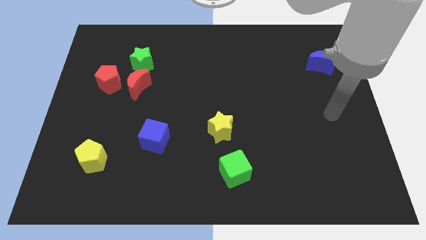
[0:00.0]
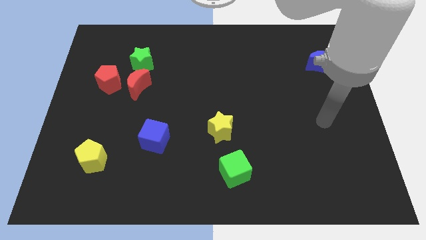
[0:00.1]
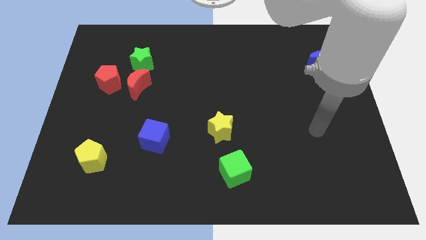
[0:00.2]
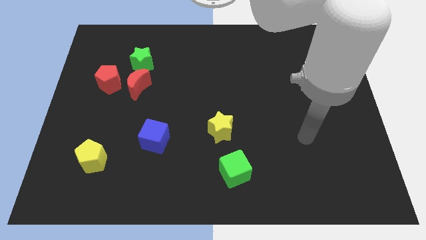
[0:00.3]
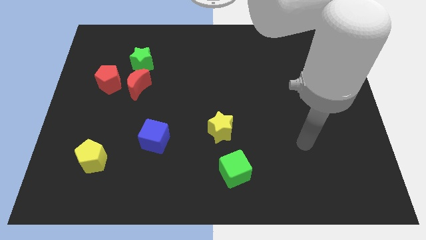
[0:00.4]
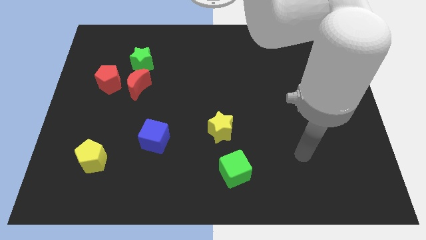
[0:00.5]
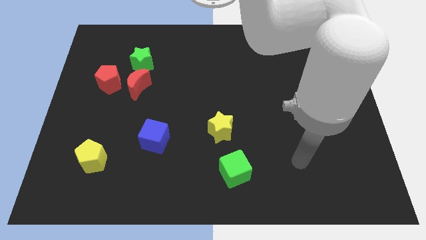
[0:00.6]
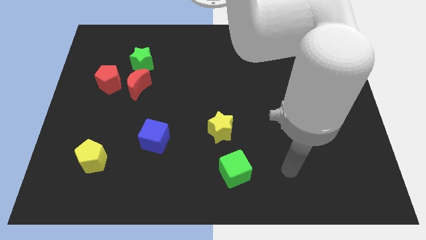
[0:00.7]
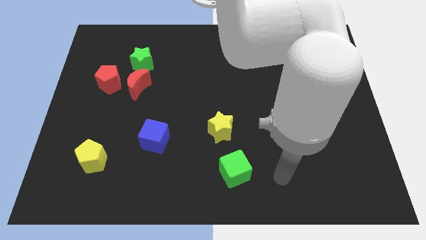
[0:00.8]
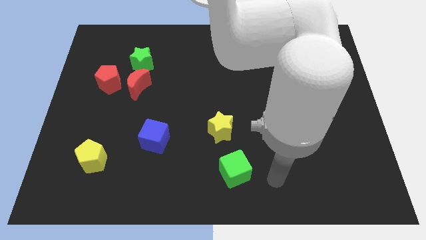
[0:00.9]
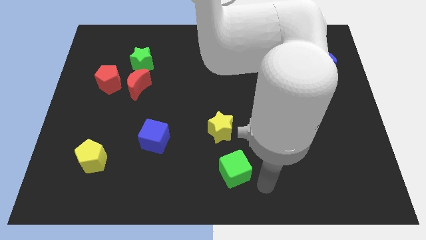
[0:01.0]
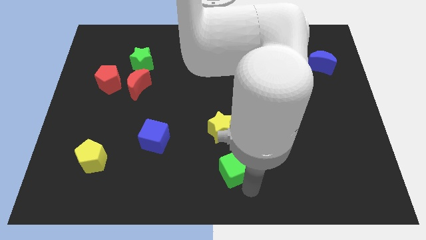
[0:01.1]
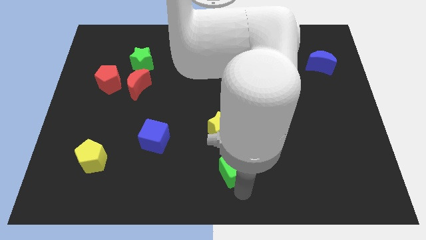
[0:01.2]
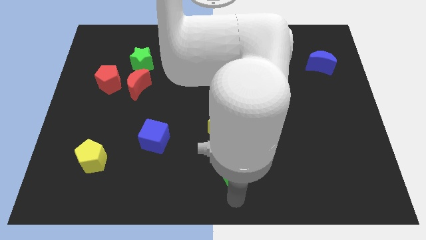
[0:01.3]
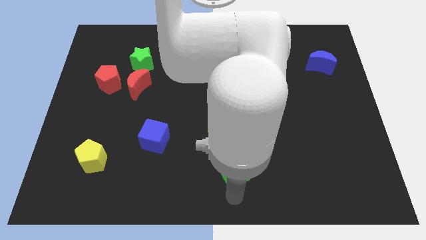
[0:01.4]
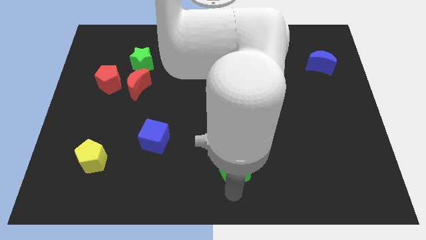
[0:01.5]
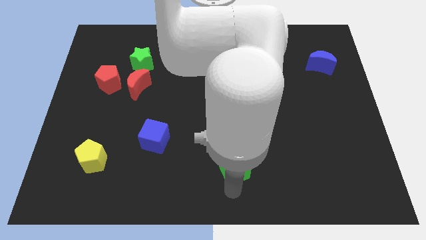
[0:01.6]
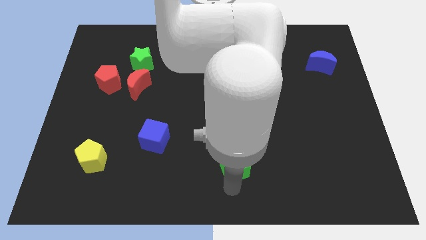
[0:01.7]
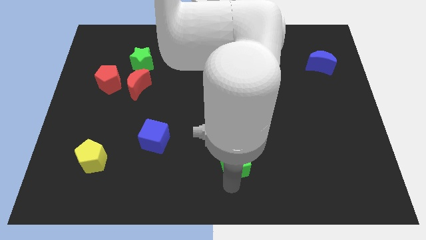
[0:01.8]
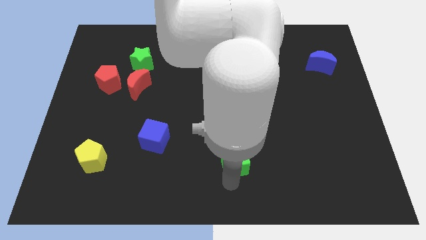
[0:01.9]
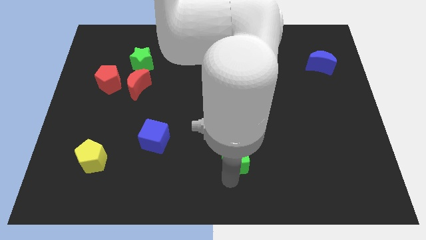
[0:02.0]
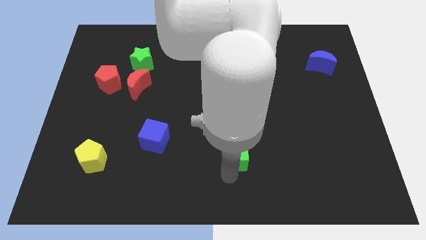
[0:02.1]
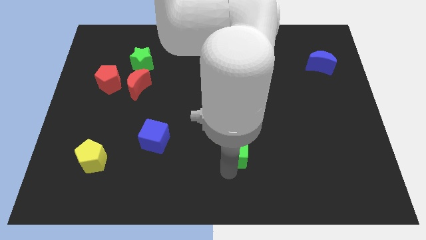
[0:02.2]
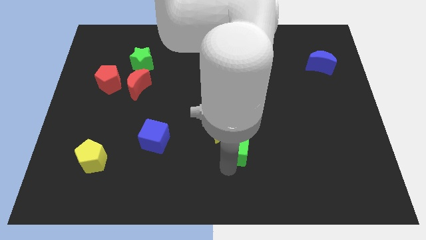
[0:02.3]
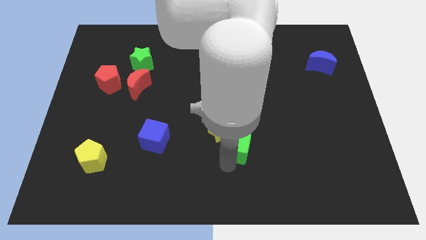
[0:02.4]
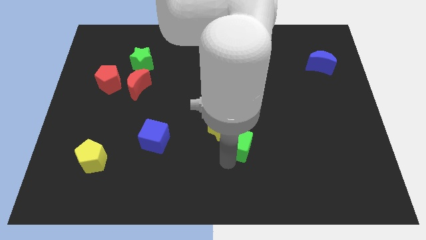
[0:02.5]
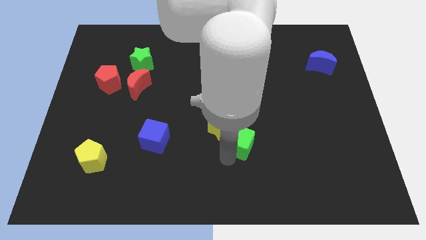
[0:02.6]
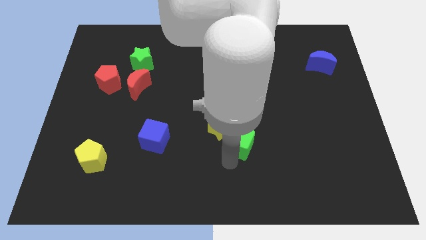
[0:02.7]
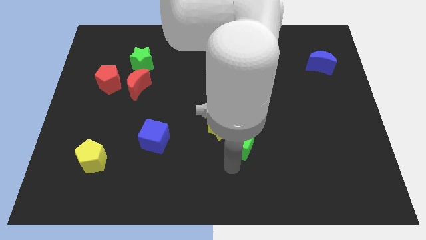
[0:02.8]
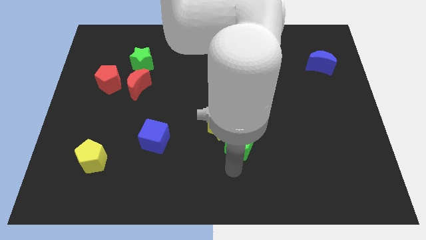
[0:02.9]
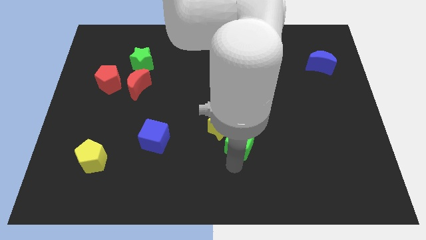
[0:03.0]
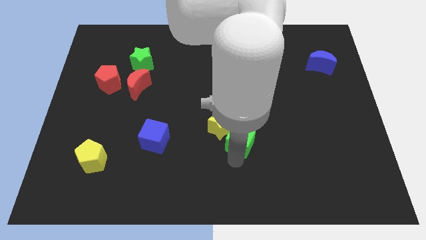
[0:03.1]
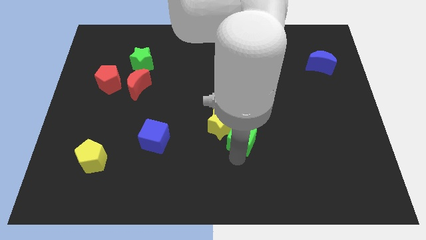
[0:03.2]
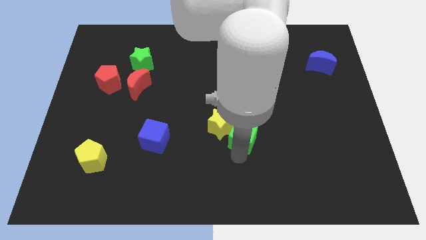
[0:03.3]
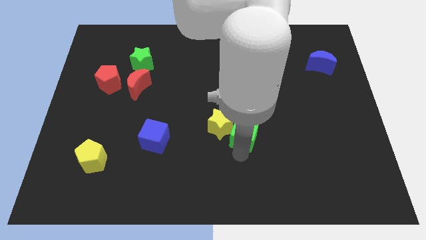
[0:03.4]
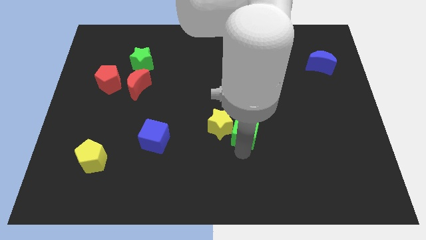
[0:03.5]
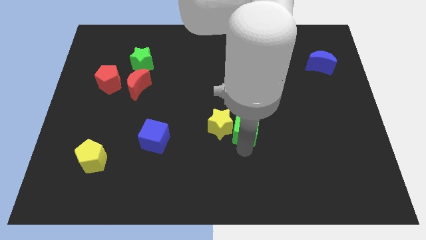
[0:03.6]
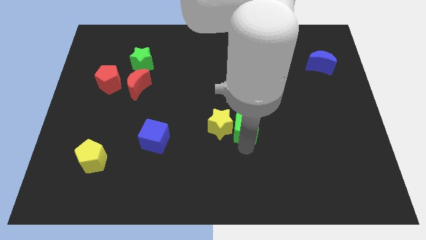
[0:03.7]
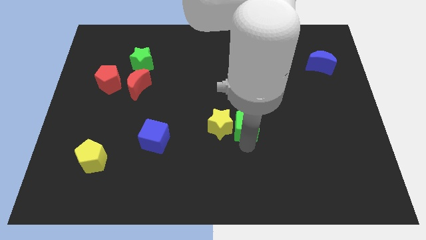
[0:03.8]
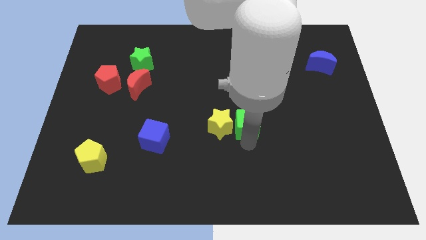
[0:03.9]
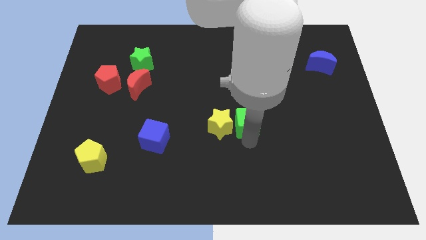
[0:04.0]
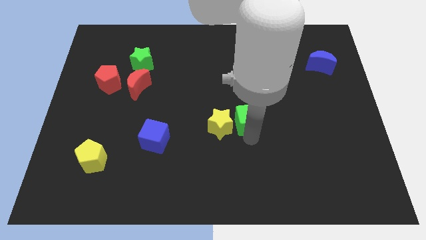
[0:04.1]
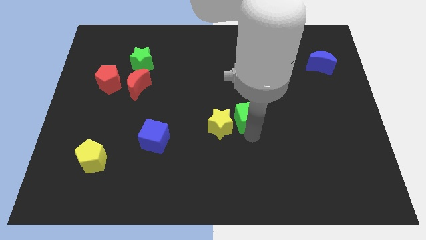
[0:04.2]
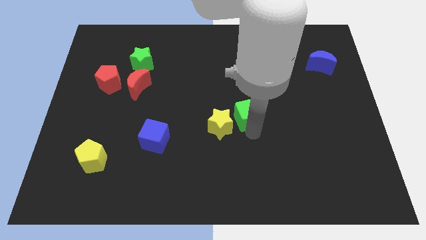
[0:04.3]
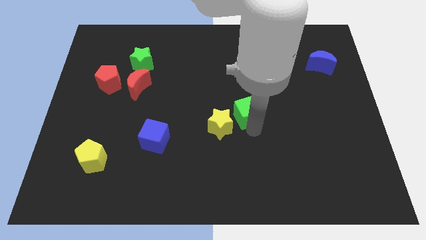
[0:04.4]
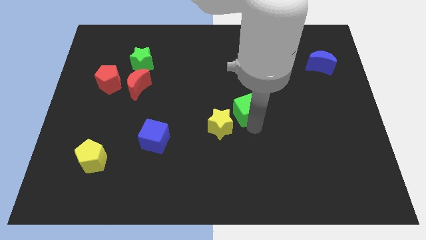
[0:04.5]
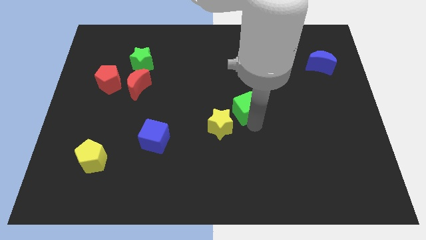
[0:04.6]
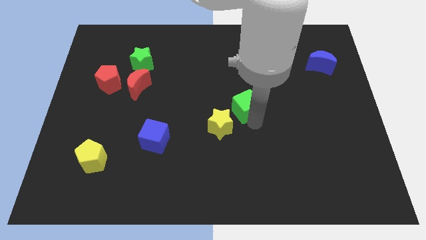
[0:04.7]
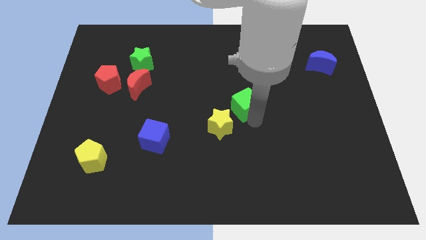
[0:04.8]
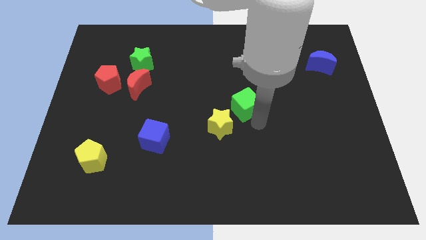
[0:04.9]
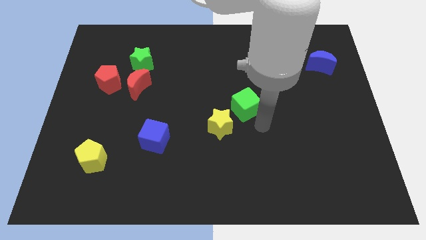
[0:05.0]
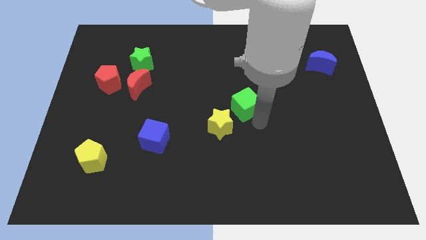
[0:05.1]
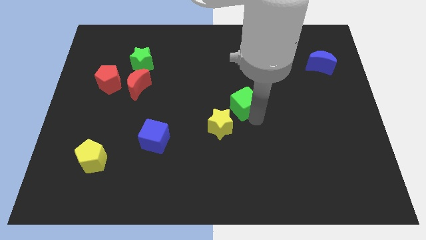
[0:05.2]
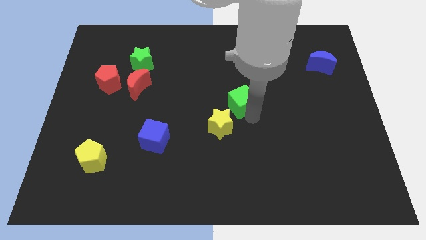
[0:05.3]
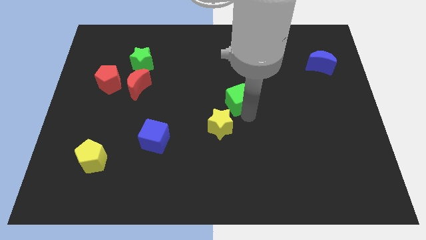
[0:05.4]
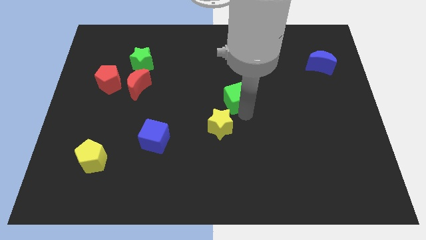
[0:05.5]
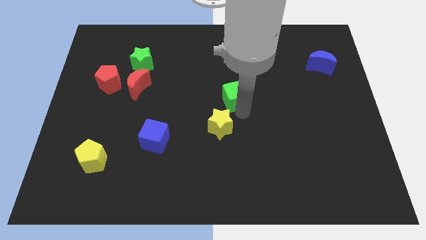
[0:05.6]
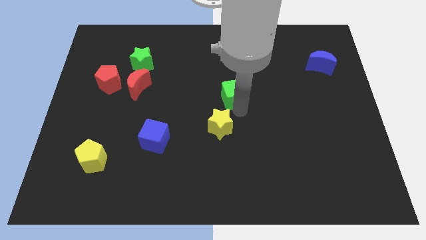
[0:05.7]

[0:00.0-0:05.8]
move the green cube upwards

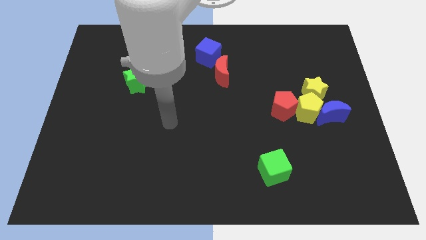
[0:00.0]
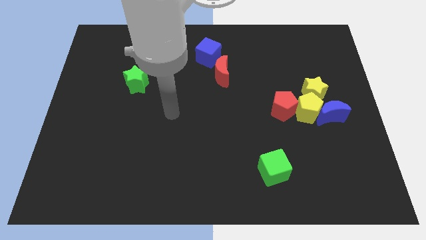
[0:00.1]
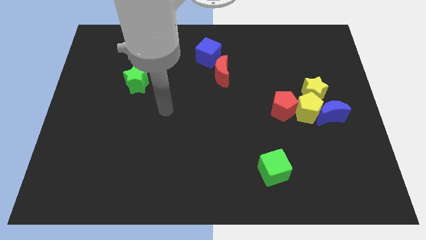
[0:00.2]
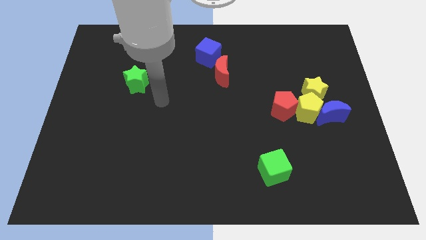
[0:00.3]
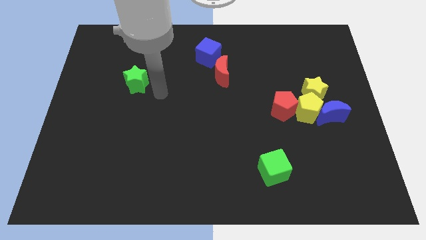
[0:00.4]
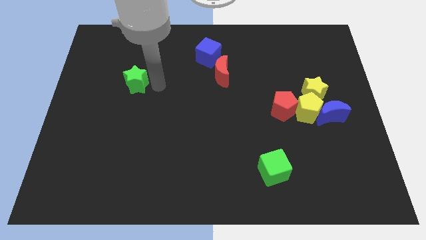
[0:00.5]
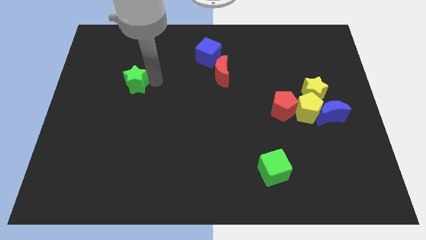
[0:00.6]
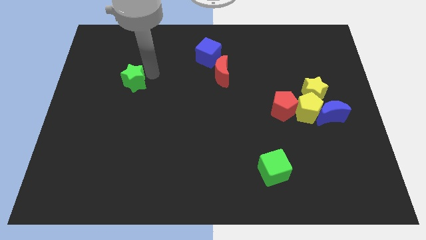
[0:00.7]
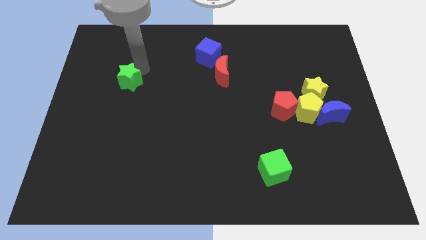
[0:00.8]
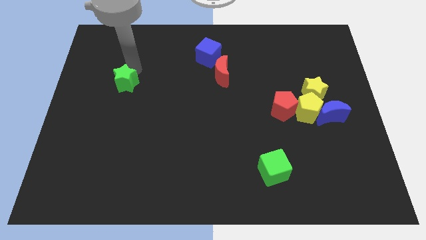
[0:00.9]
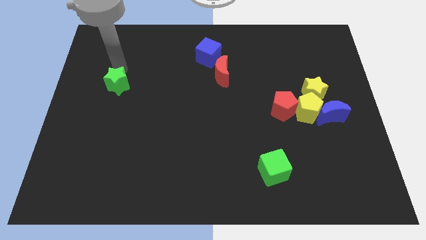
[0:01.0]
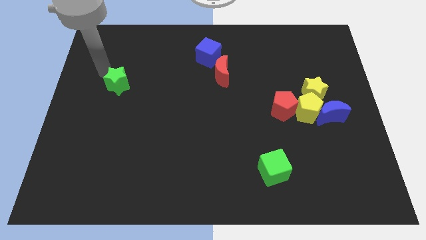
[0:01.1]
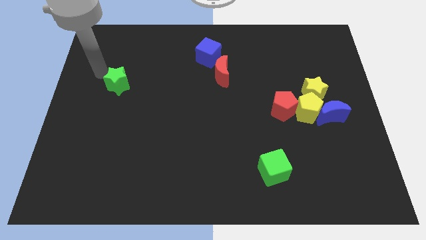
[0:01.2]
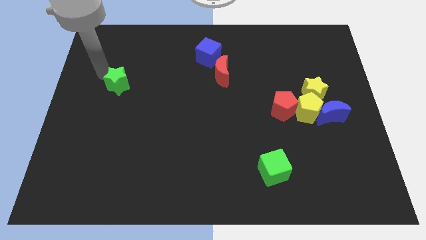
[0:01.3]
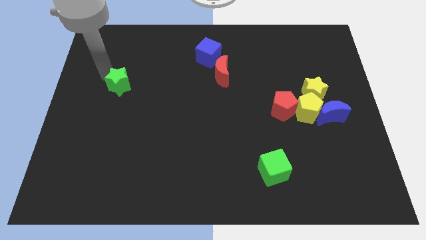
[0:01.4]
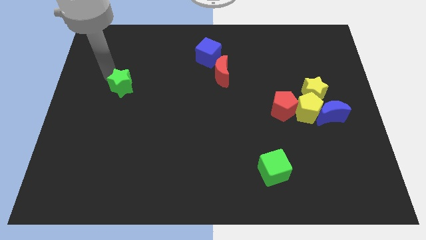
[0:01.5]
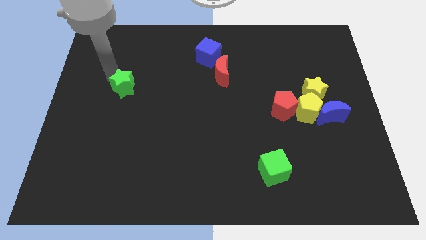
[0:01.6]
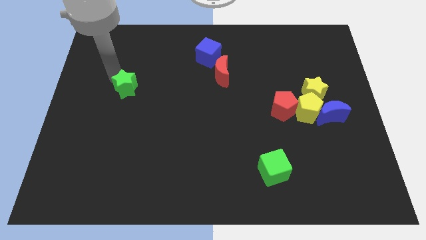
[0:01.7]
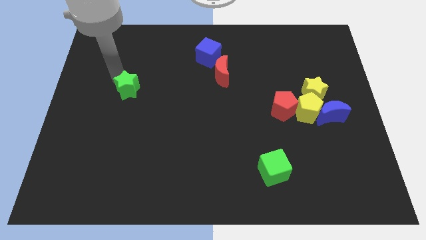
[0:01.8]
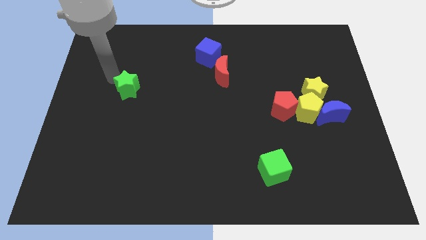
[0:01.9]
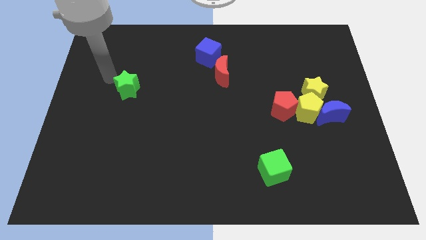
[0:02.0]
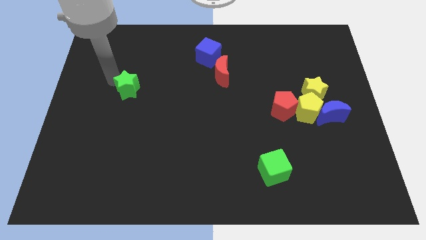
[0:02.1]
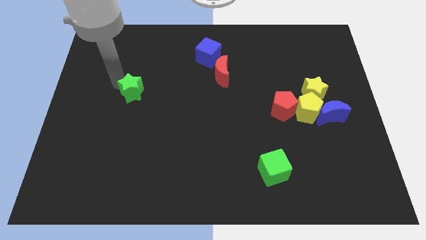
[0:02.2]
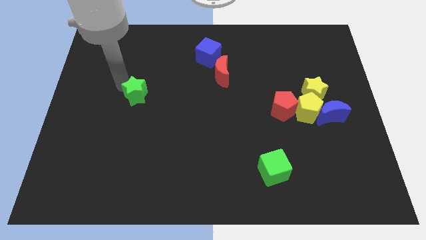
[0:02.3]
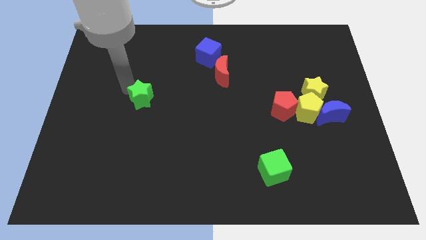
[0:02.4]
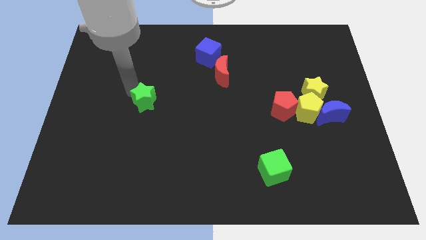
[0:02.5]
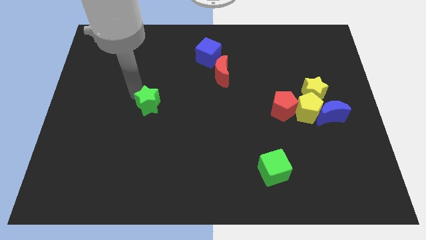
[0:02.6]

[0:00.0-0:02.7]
slightly push the green star diagonally downwards and right
